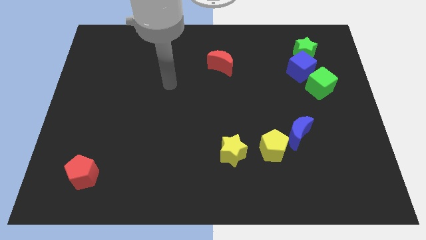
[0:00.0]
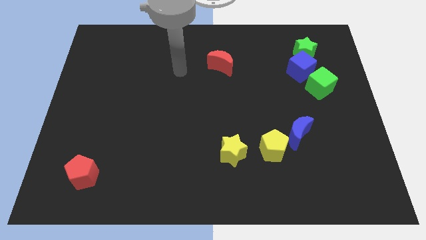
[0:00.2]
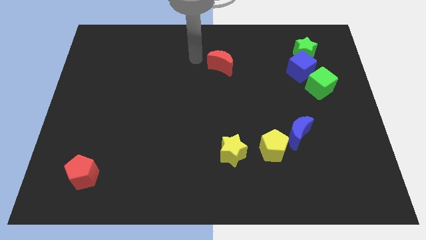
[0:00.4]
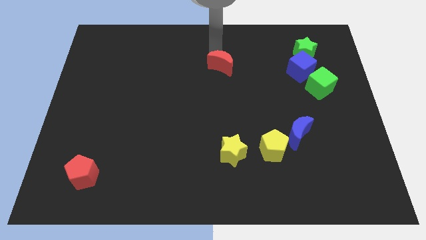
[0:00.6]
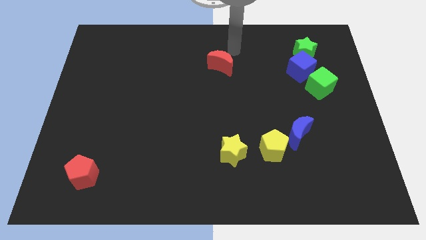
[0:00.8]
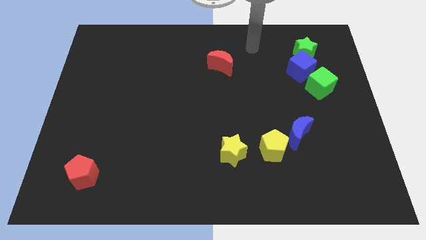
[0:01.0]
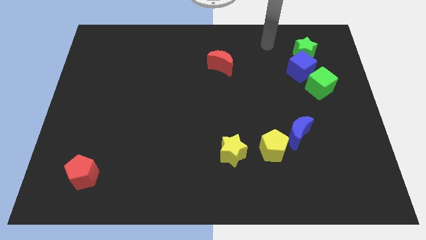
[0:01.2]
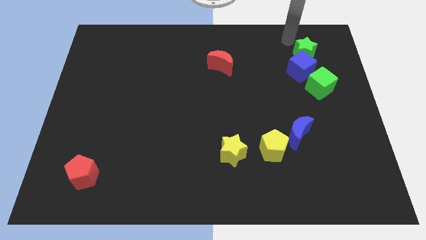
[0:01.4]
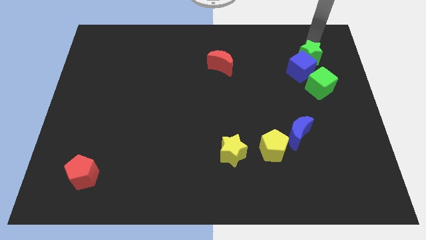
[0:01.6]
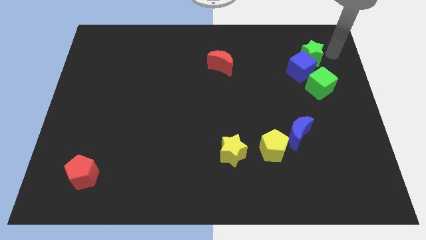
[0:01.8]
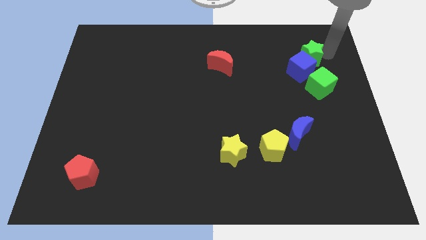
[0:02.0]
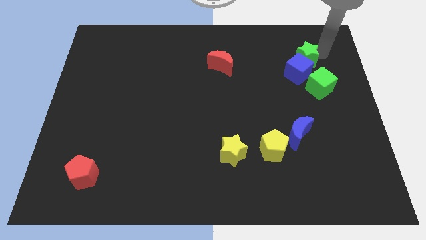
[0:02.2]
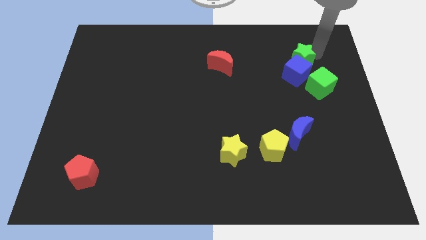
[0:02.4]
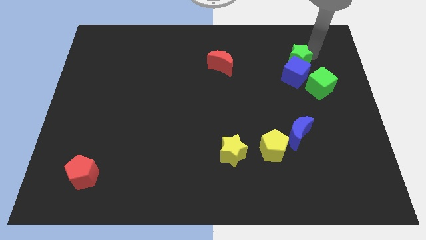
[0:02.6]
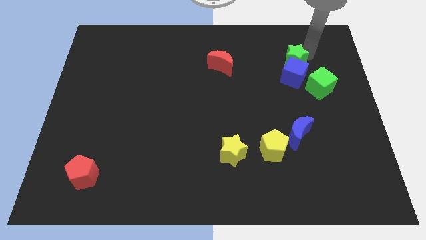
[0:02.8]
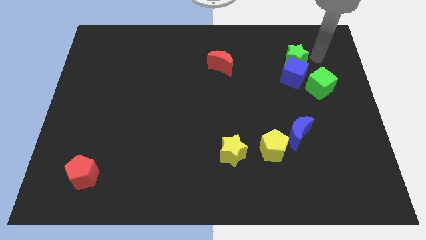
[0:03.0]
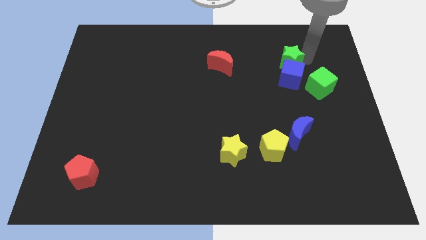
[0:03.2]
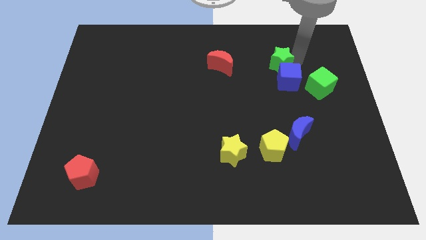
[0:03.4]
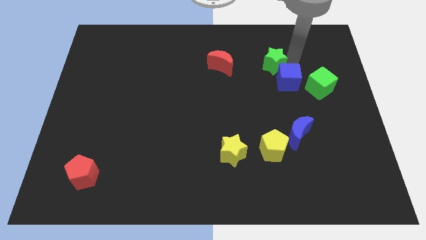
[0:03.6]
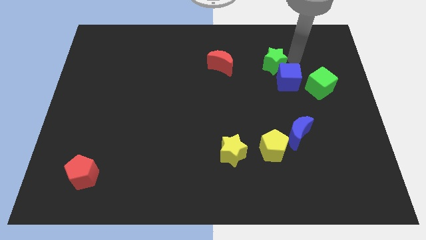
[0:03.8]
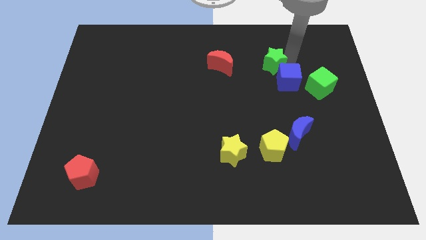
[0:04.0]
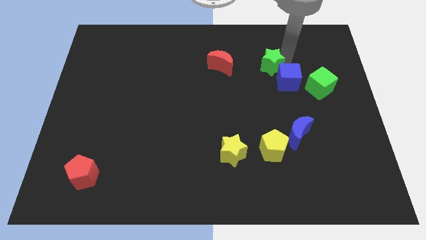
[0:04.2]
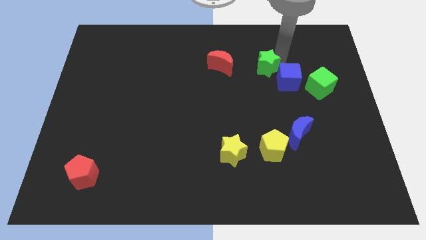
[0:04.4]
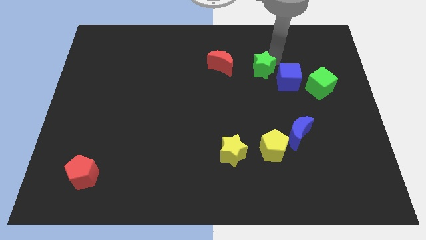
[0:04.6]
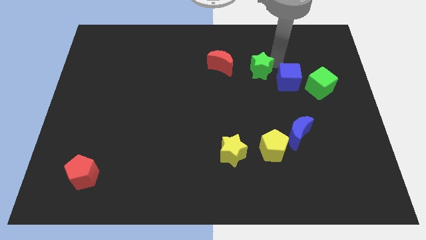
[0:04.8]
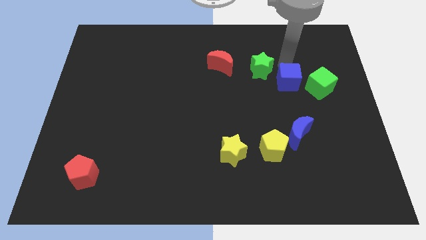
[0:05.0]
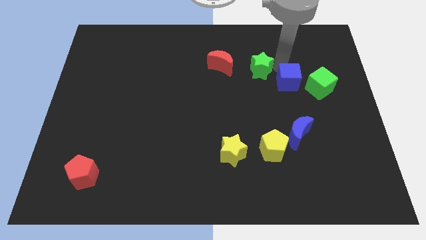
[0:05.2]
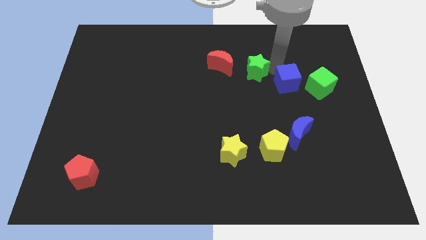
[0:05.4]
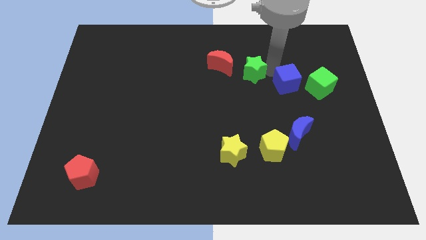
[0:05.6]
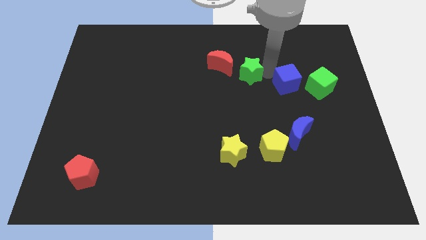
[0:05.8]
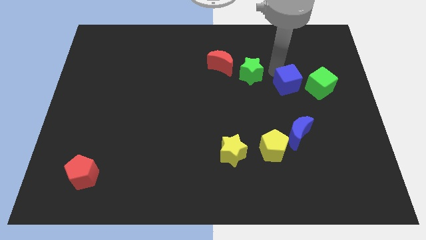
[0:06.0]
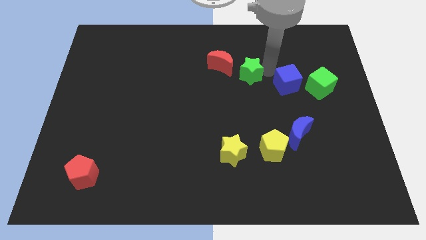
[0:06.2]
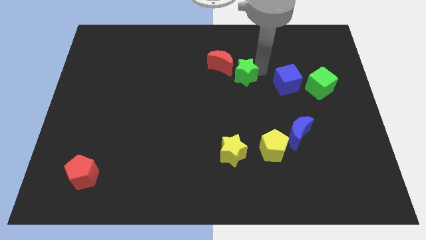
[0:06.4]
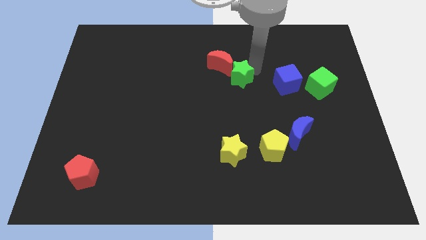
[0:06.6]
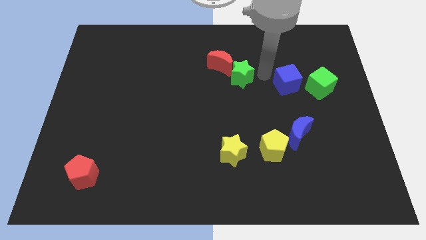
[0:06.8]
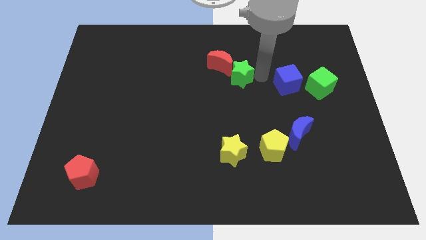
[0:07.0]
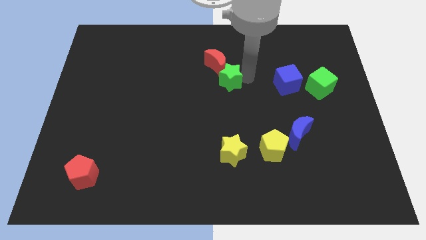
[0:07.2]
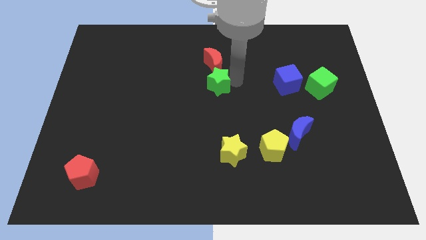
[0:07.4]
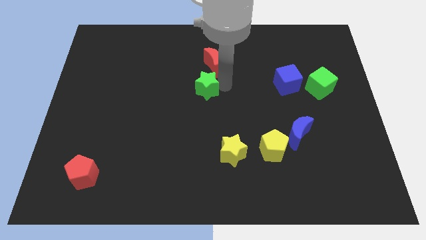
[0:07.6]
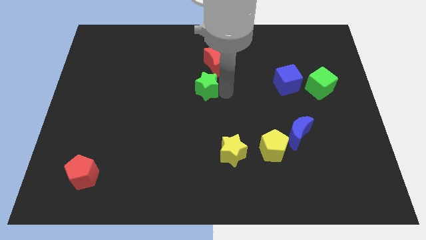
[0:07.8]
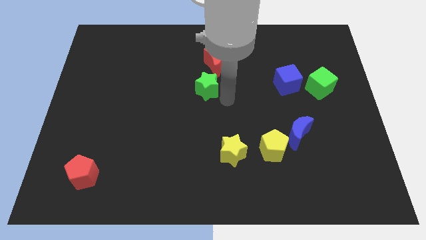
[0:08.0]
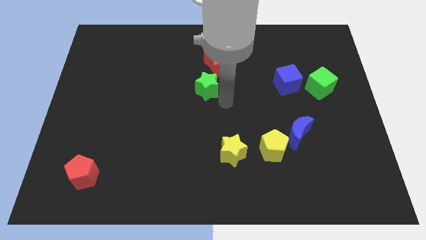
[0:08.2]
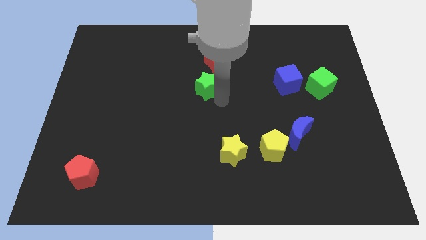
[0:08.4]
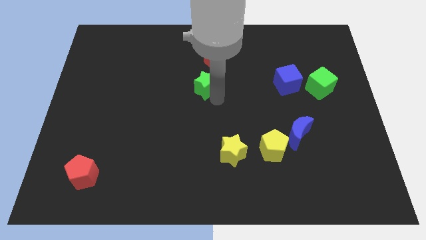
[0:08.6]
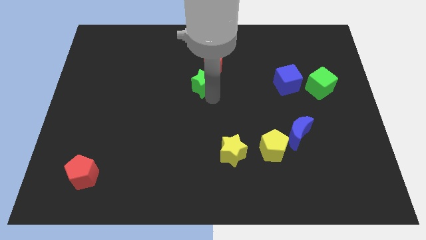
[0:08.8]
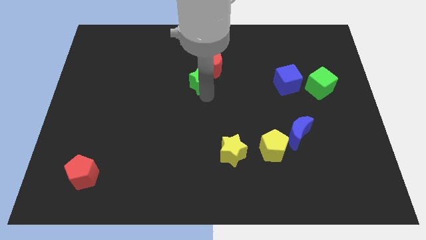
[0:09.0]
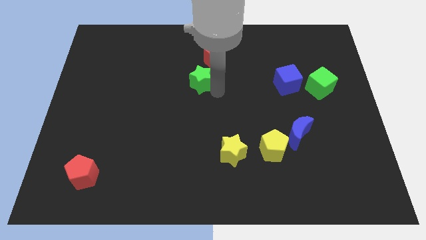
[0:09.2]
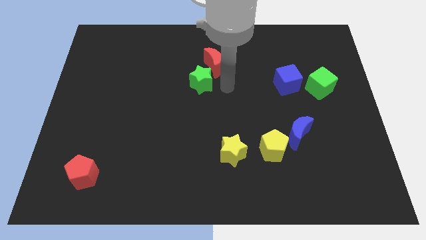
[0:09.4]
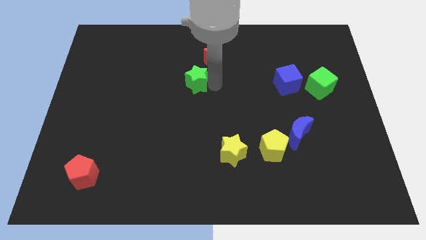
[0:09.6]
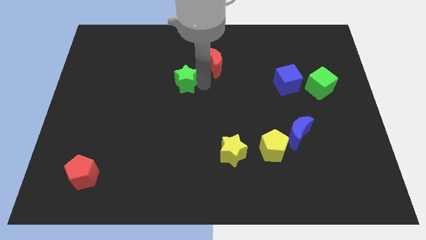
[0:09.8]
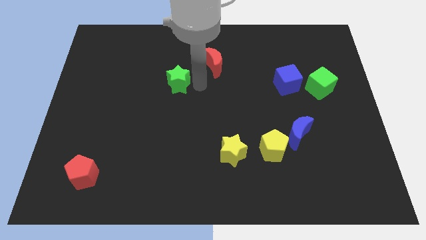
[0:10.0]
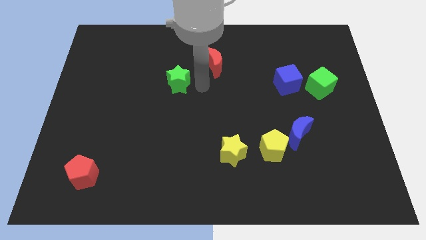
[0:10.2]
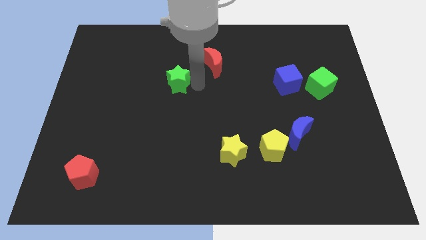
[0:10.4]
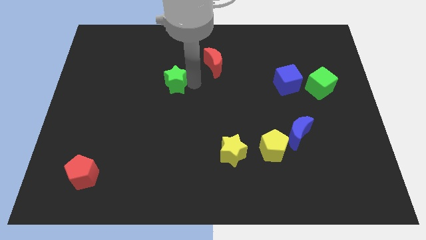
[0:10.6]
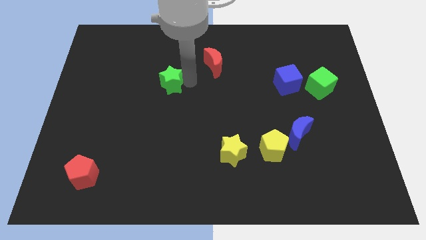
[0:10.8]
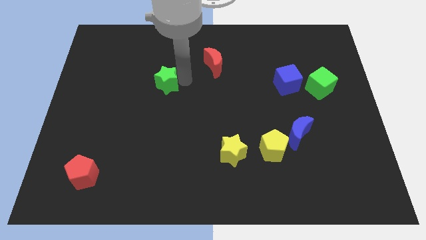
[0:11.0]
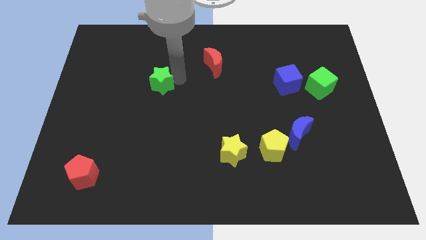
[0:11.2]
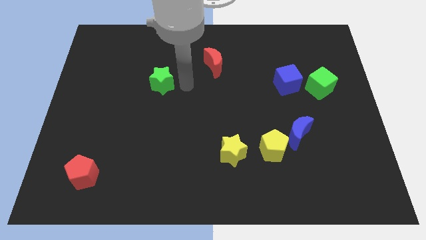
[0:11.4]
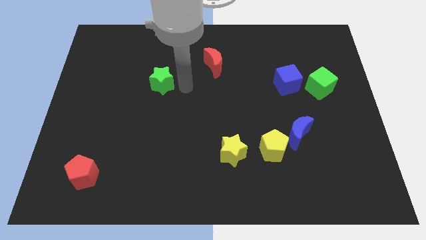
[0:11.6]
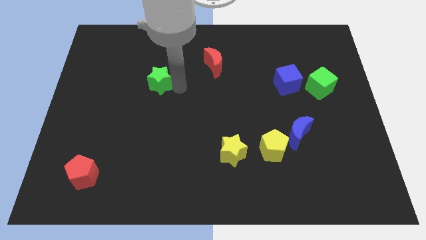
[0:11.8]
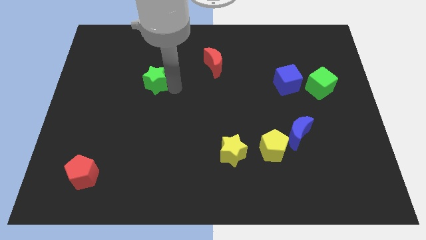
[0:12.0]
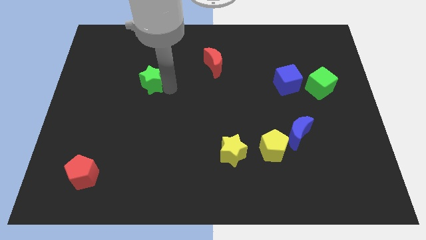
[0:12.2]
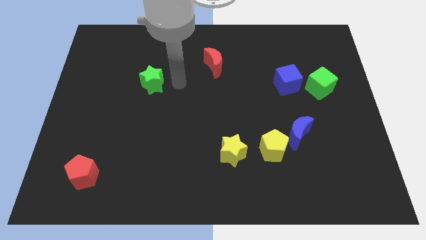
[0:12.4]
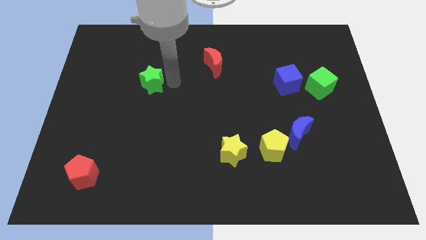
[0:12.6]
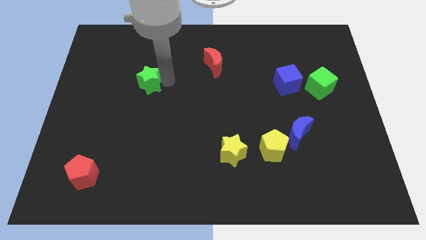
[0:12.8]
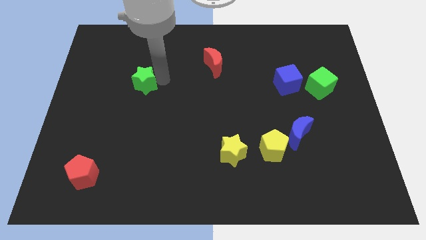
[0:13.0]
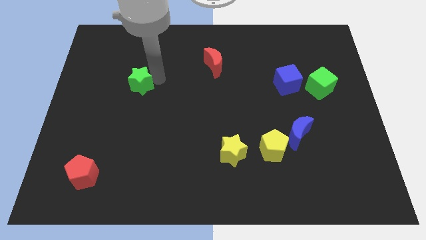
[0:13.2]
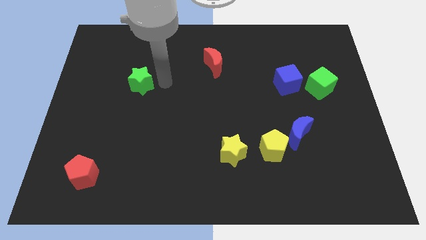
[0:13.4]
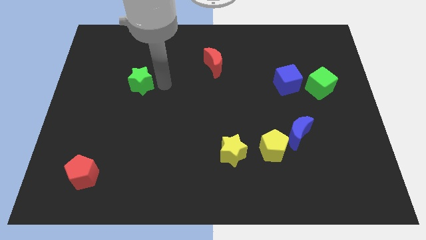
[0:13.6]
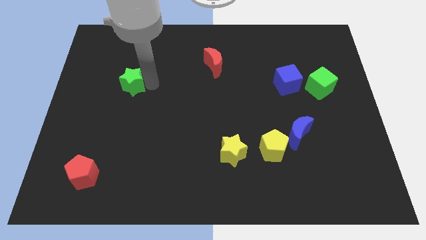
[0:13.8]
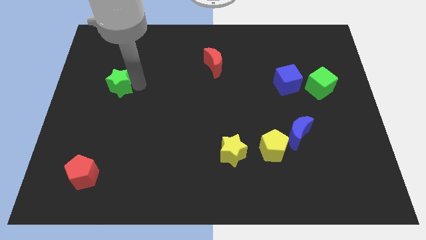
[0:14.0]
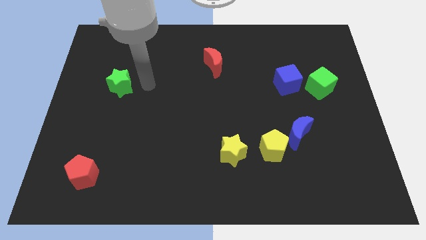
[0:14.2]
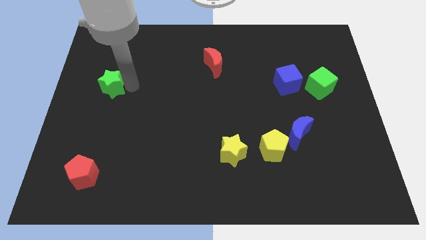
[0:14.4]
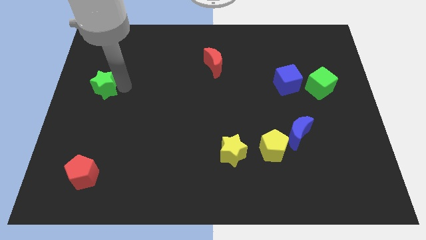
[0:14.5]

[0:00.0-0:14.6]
put the green star to the center left

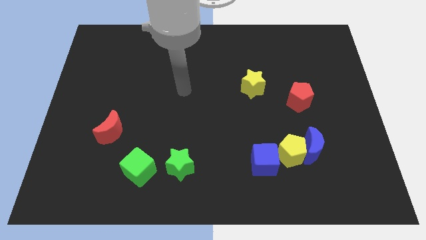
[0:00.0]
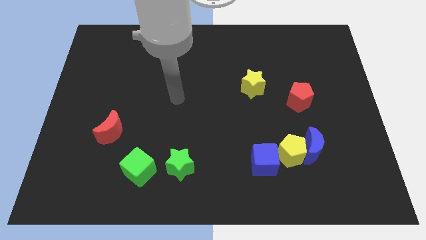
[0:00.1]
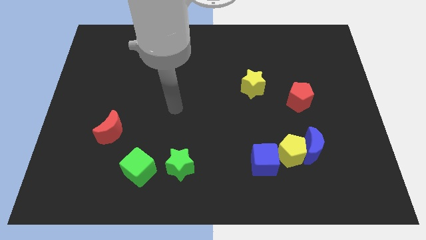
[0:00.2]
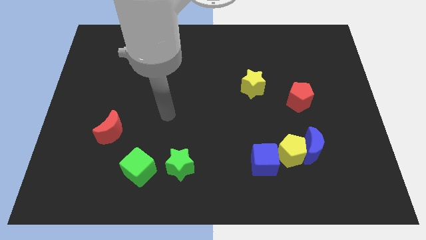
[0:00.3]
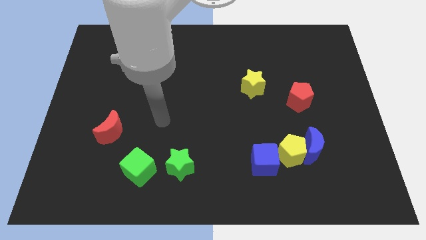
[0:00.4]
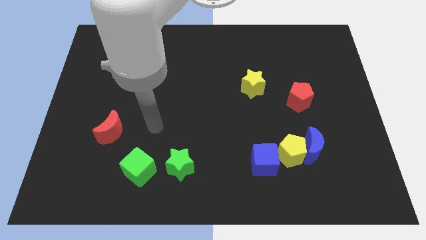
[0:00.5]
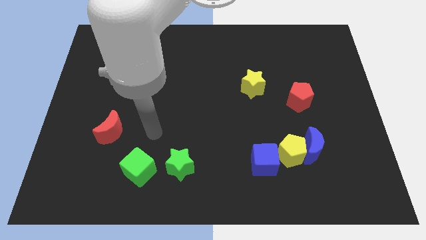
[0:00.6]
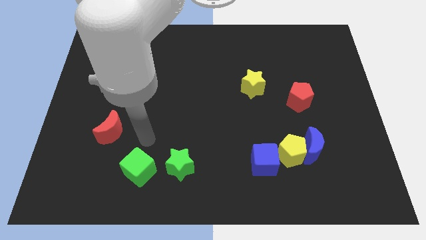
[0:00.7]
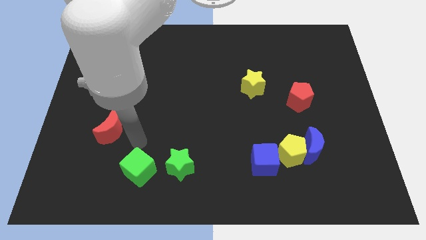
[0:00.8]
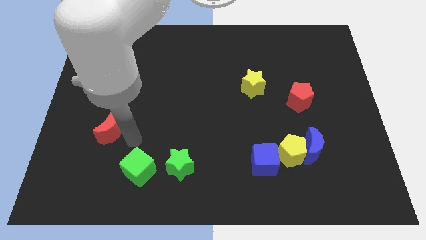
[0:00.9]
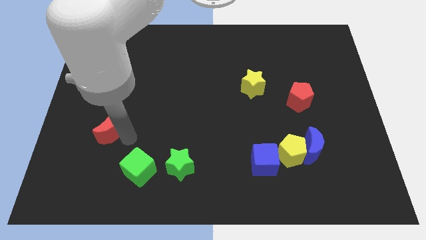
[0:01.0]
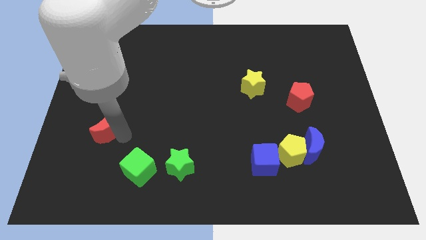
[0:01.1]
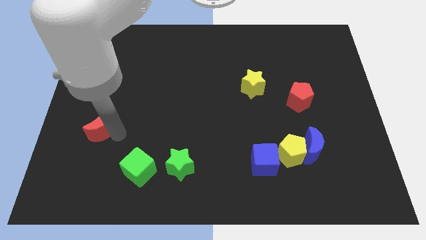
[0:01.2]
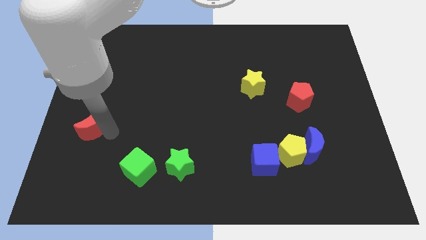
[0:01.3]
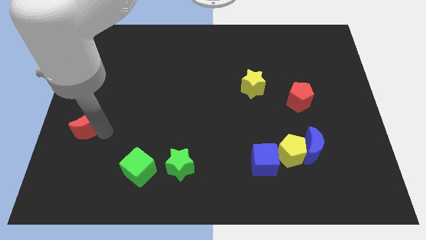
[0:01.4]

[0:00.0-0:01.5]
put the red moon to the center left
